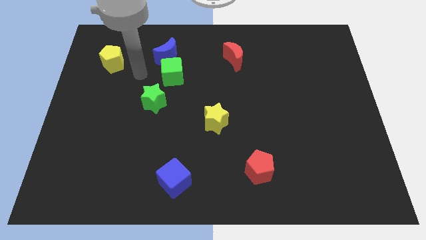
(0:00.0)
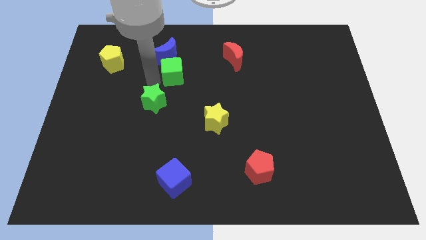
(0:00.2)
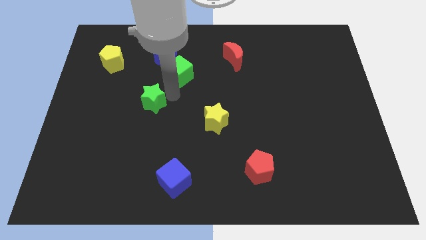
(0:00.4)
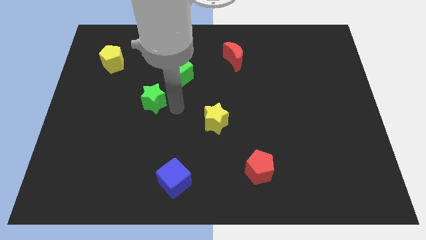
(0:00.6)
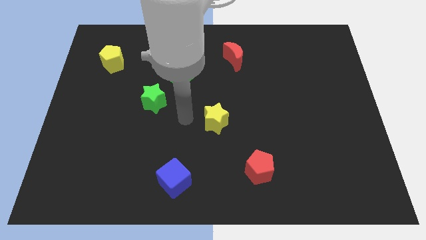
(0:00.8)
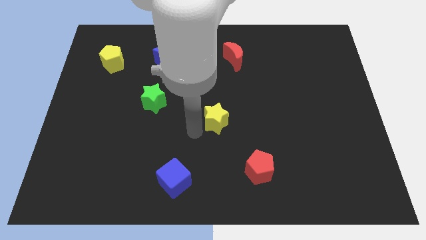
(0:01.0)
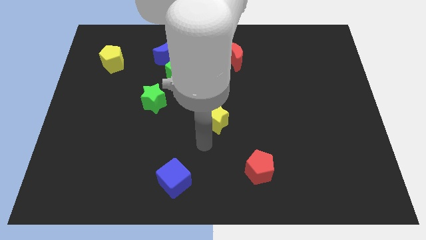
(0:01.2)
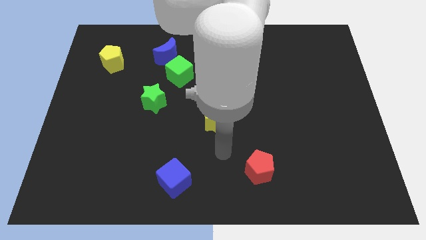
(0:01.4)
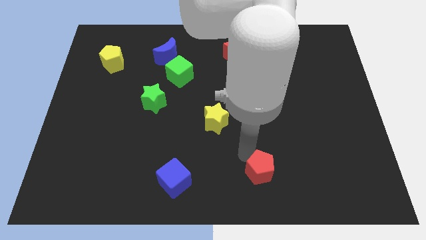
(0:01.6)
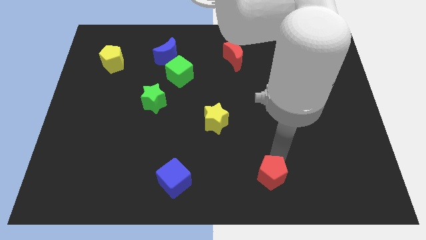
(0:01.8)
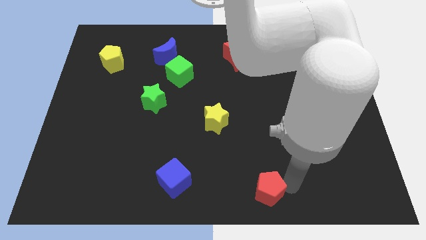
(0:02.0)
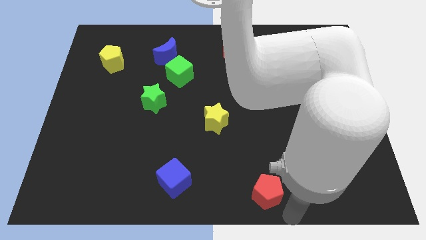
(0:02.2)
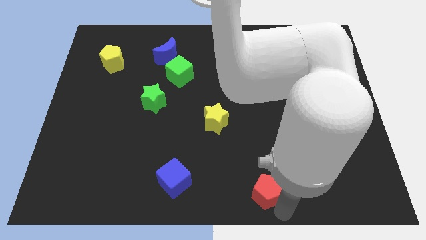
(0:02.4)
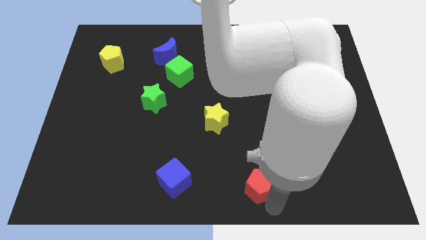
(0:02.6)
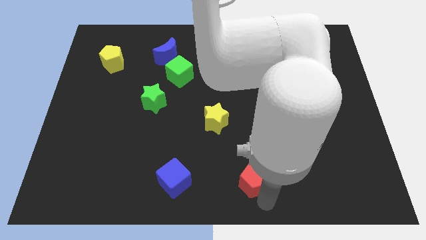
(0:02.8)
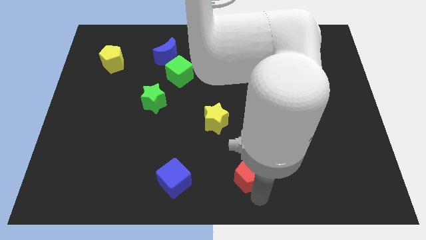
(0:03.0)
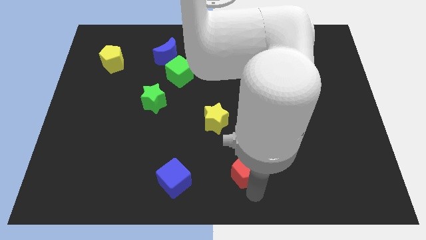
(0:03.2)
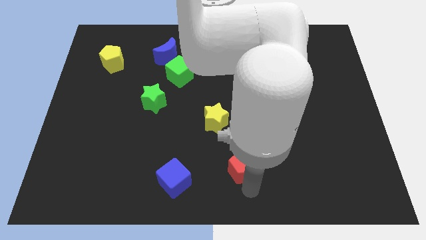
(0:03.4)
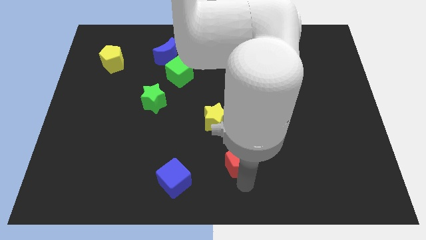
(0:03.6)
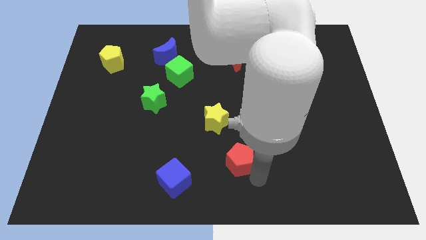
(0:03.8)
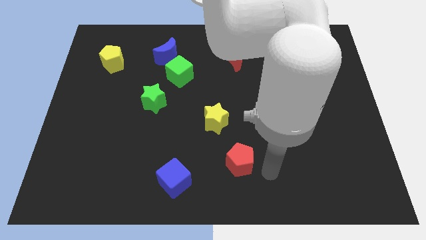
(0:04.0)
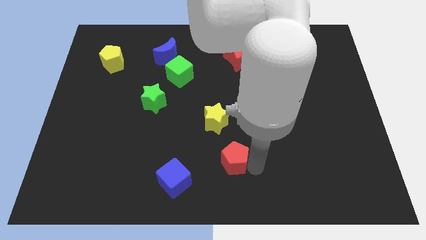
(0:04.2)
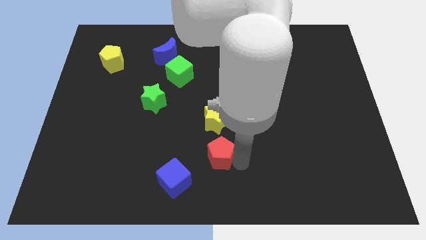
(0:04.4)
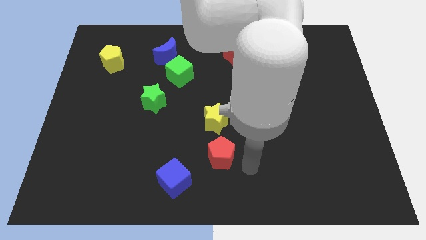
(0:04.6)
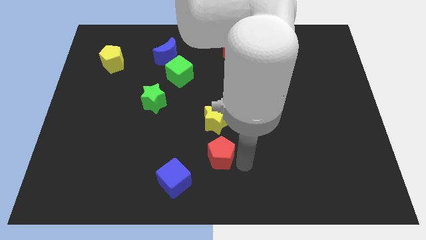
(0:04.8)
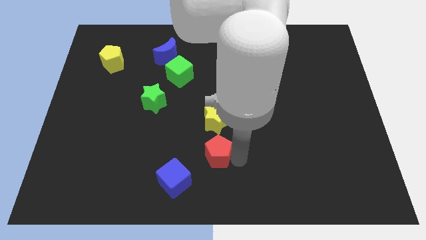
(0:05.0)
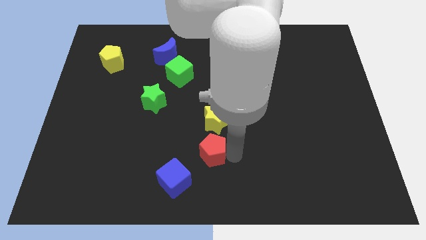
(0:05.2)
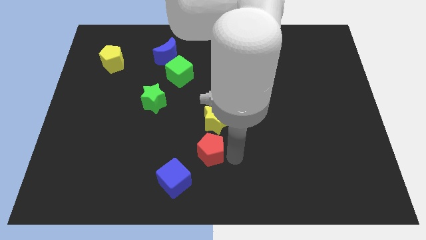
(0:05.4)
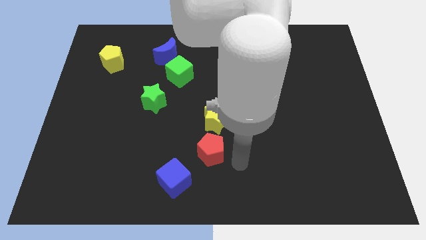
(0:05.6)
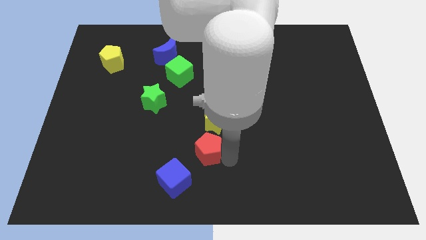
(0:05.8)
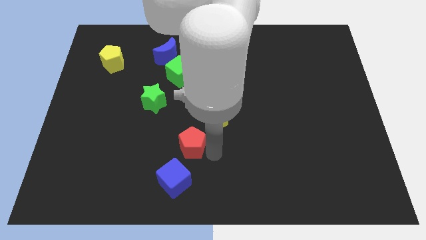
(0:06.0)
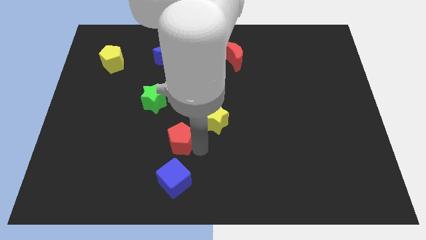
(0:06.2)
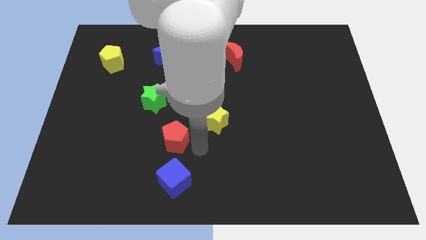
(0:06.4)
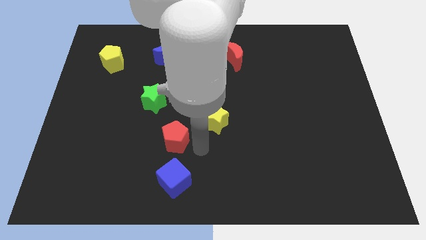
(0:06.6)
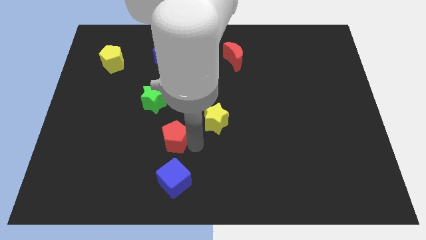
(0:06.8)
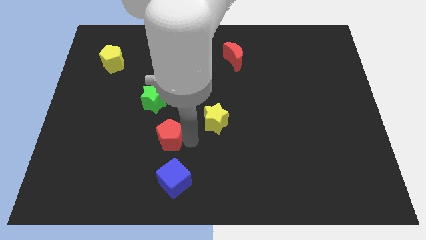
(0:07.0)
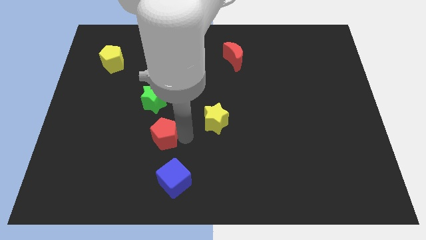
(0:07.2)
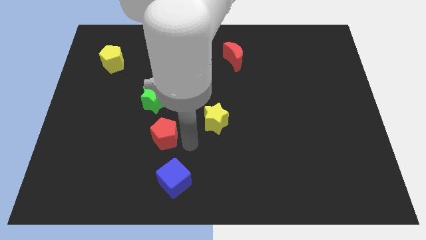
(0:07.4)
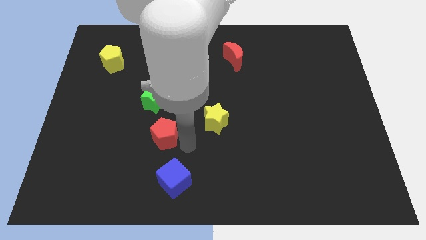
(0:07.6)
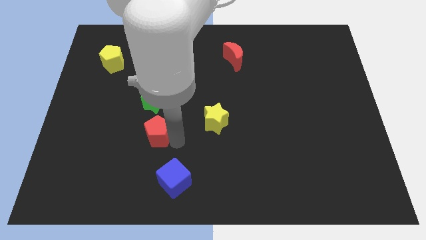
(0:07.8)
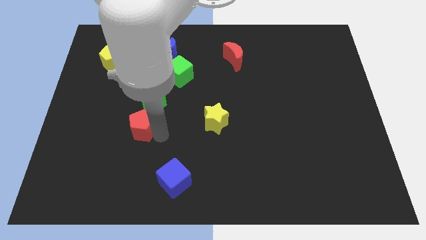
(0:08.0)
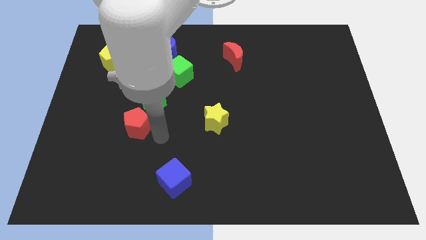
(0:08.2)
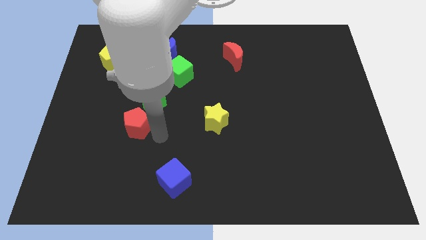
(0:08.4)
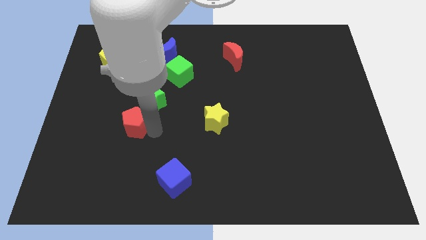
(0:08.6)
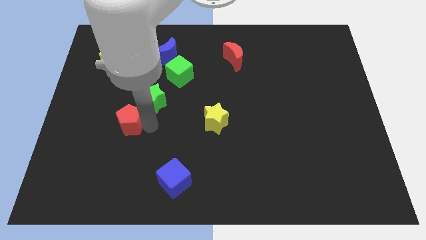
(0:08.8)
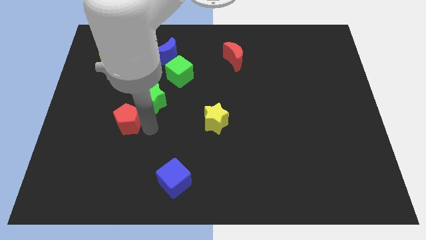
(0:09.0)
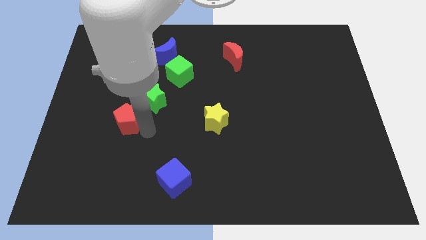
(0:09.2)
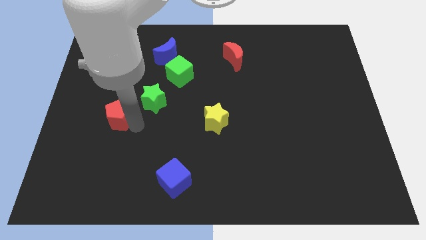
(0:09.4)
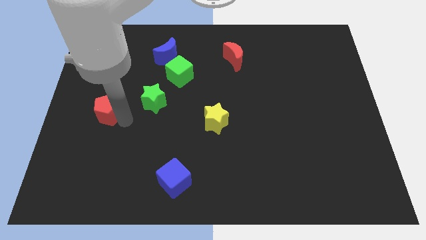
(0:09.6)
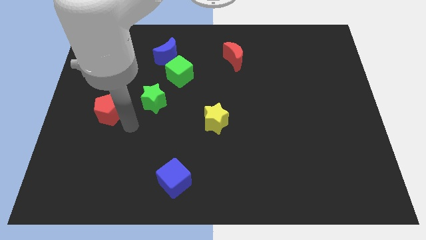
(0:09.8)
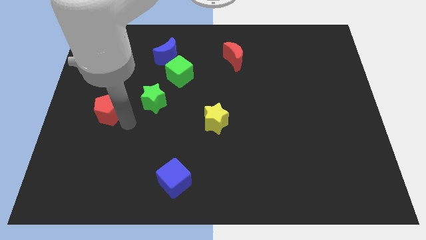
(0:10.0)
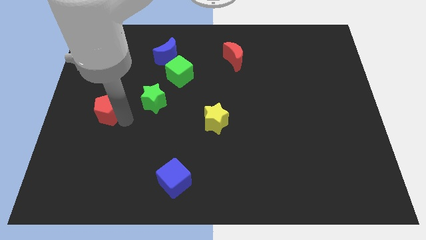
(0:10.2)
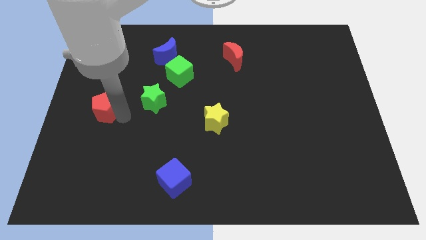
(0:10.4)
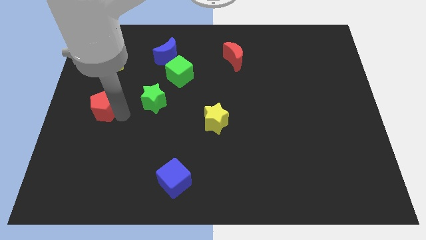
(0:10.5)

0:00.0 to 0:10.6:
push the red pentagon to the left side

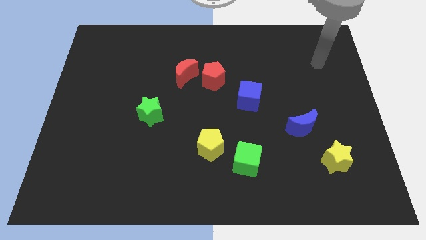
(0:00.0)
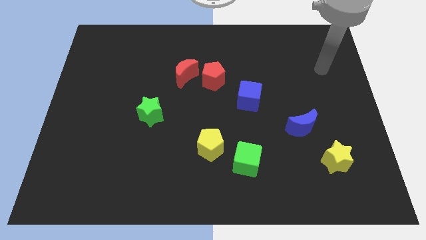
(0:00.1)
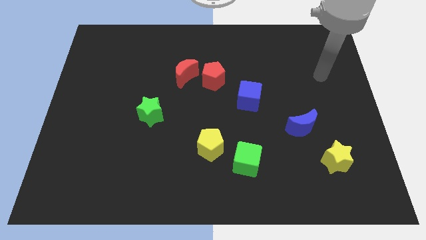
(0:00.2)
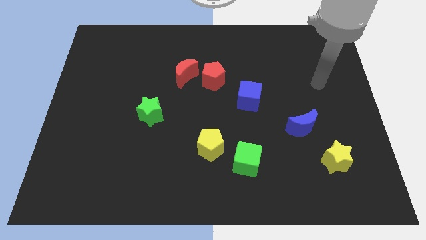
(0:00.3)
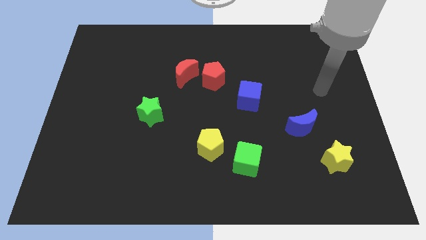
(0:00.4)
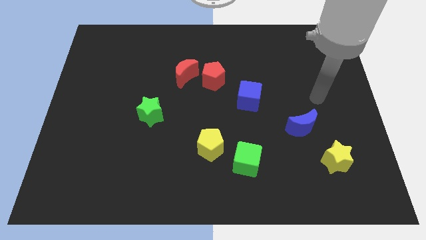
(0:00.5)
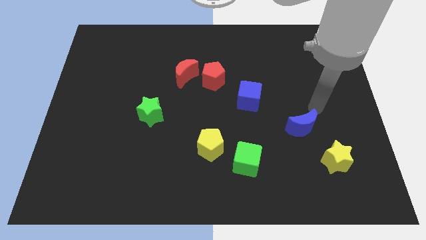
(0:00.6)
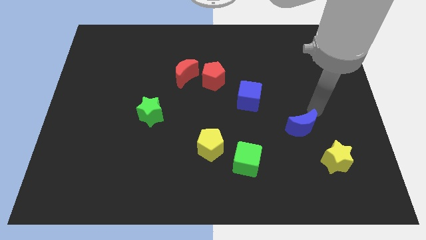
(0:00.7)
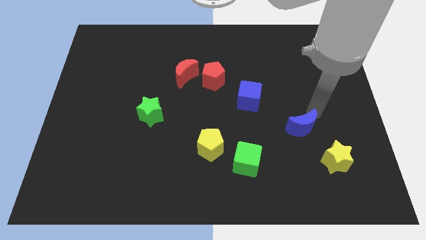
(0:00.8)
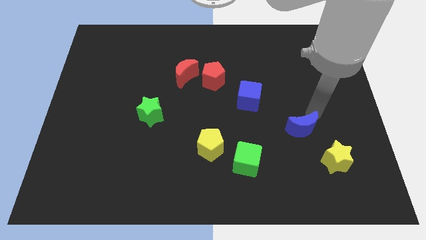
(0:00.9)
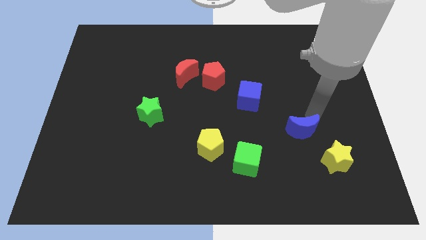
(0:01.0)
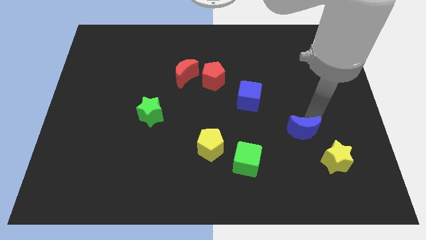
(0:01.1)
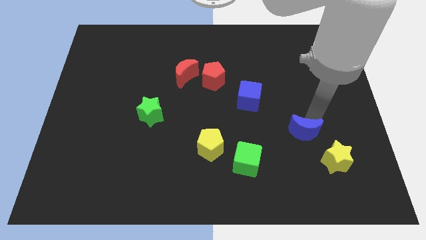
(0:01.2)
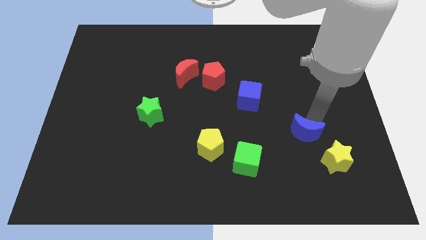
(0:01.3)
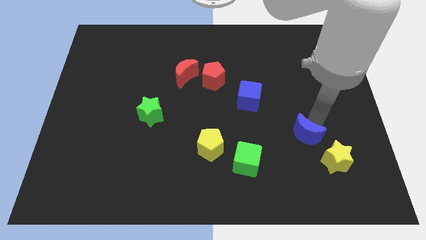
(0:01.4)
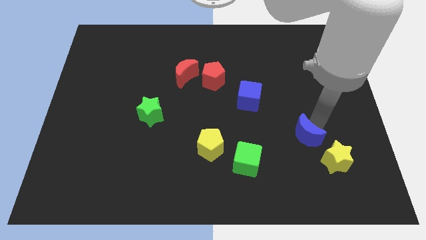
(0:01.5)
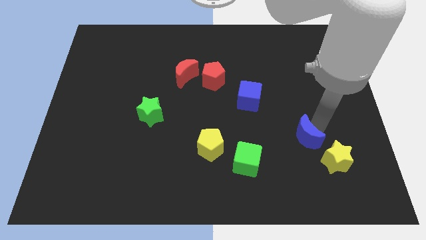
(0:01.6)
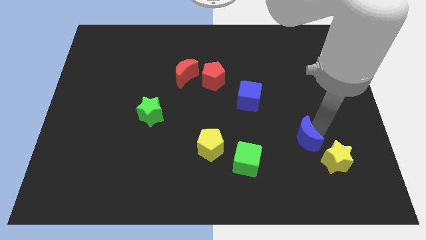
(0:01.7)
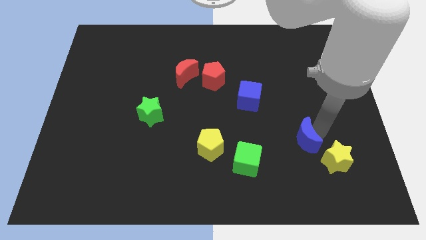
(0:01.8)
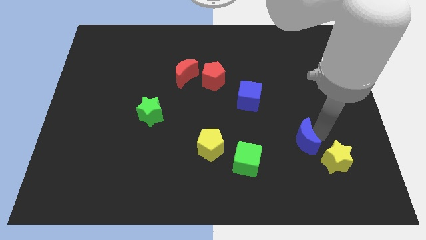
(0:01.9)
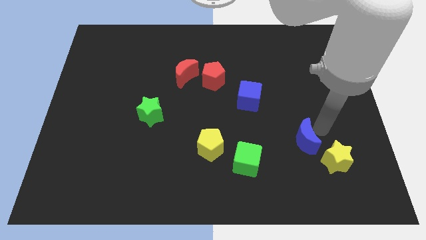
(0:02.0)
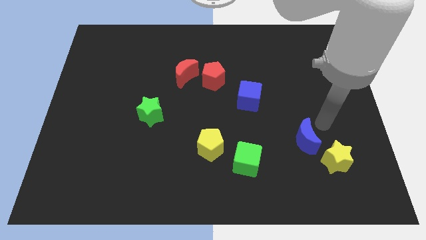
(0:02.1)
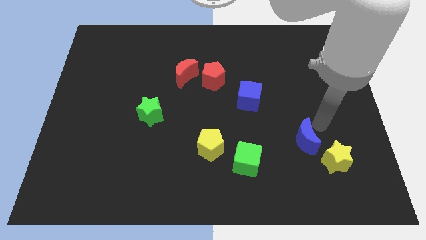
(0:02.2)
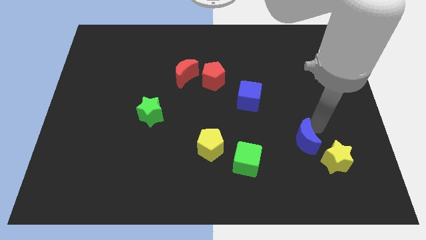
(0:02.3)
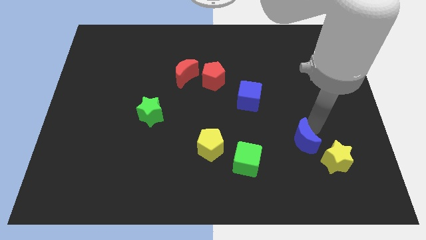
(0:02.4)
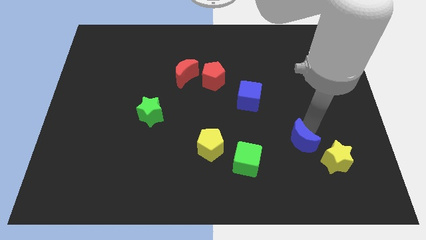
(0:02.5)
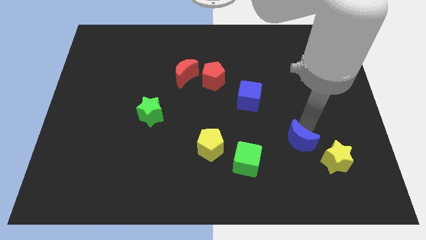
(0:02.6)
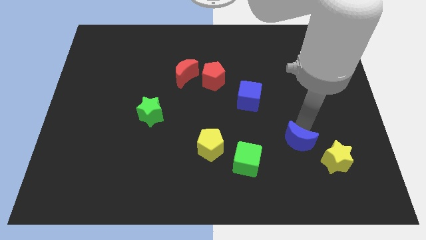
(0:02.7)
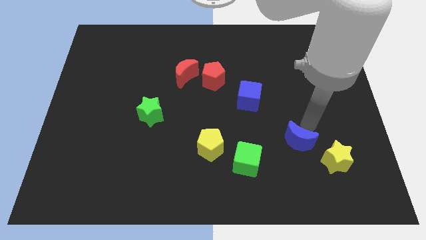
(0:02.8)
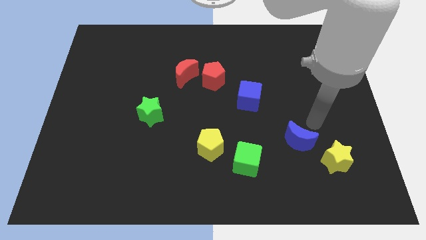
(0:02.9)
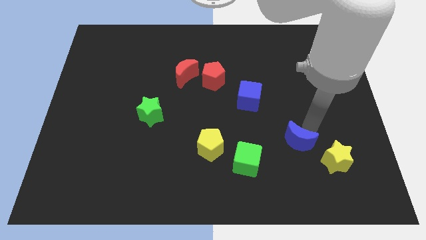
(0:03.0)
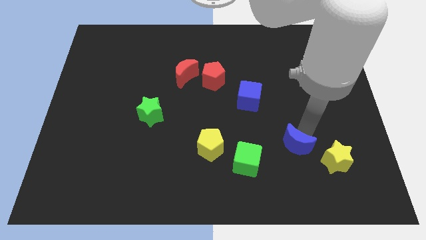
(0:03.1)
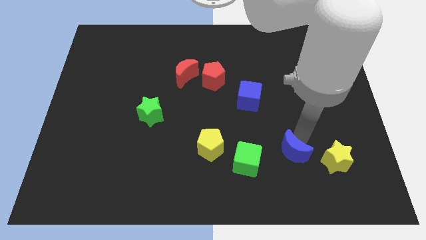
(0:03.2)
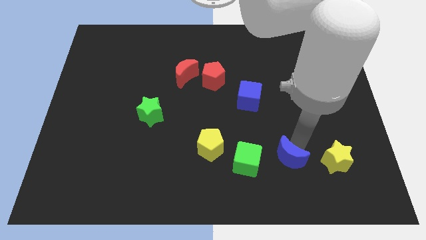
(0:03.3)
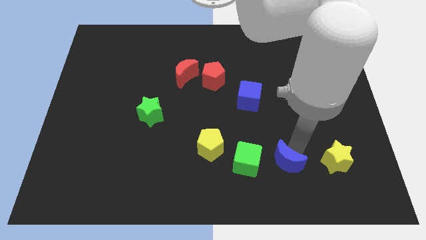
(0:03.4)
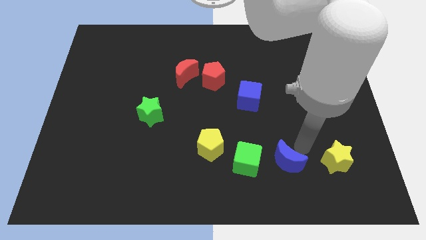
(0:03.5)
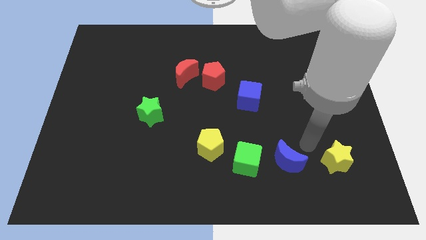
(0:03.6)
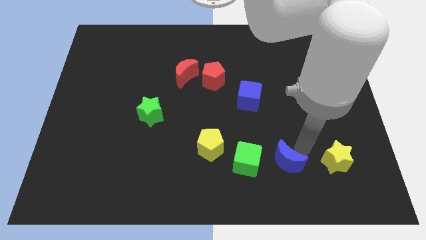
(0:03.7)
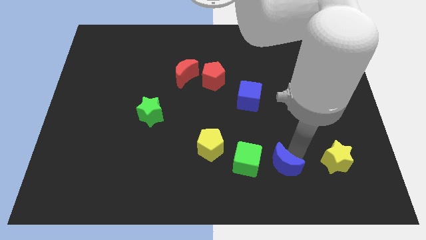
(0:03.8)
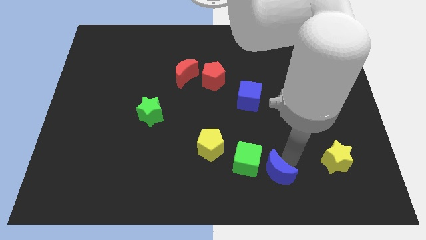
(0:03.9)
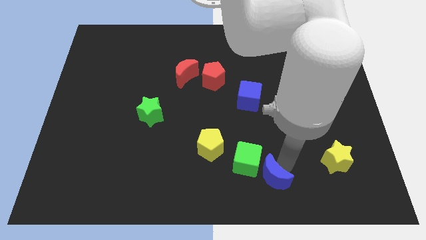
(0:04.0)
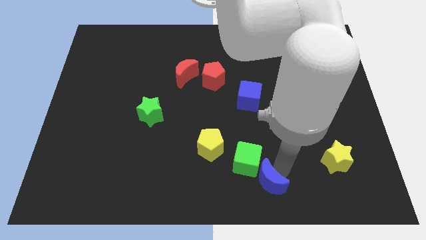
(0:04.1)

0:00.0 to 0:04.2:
put the blue moon to the bottom
